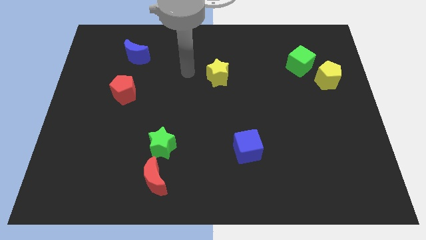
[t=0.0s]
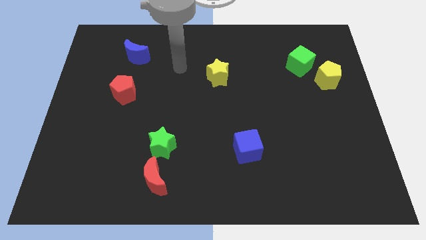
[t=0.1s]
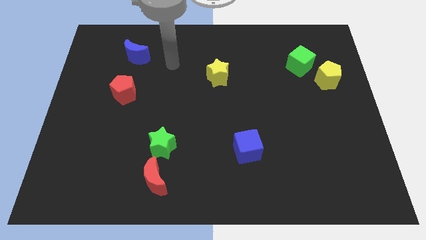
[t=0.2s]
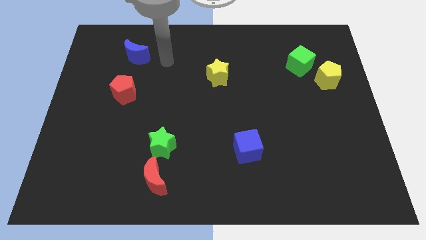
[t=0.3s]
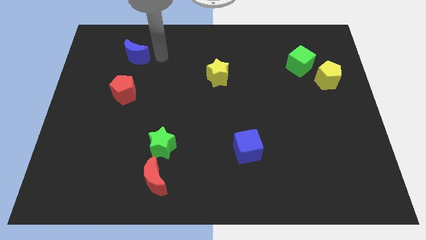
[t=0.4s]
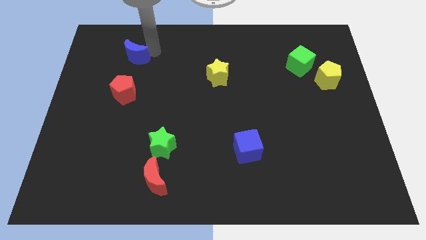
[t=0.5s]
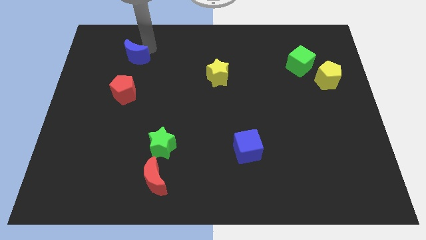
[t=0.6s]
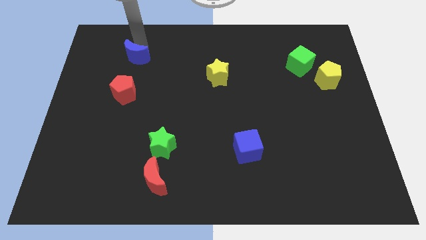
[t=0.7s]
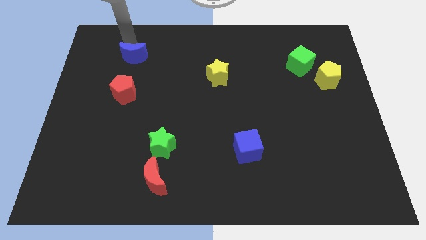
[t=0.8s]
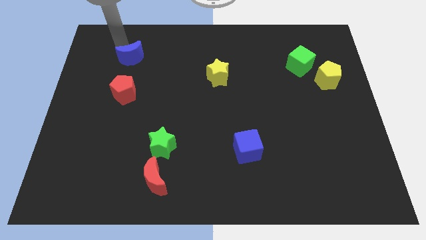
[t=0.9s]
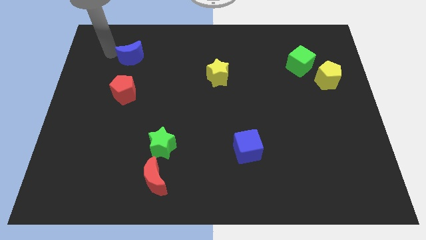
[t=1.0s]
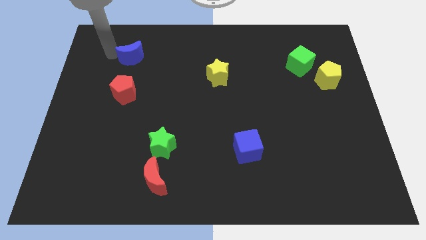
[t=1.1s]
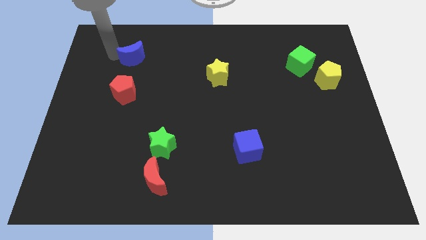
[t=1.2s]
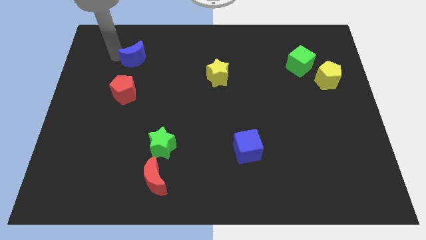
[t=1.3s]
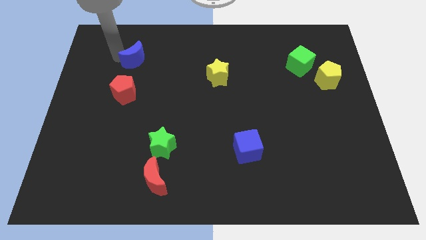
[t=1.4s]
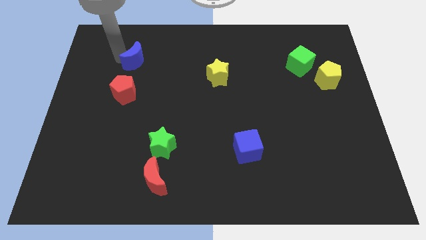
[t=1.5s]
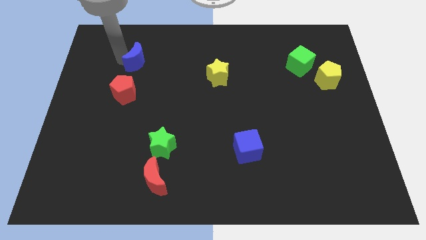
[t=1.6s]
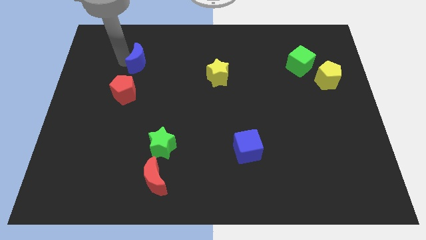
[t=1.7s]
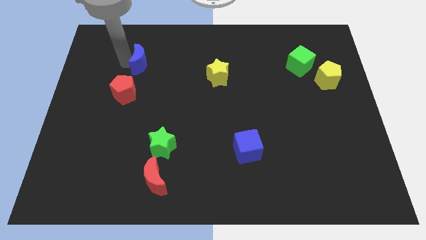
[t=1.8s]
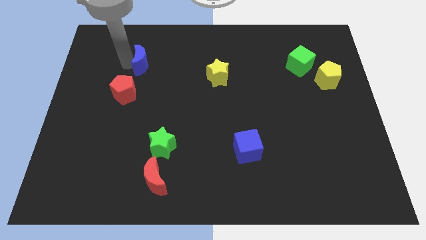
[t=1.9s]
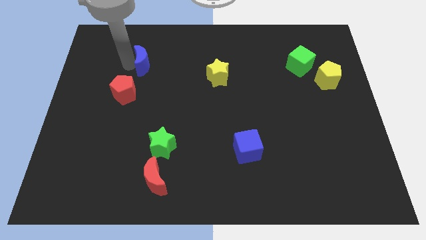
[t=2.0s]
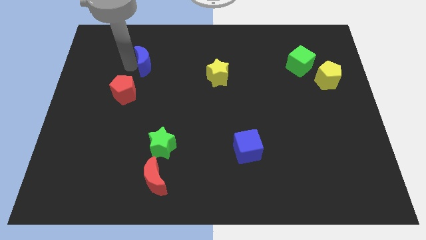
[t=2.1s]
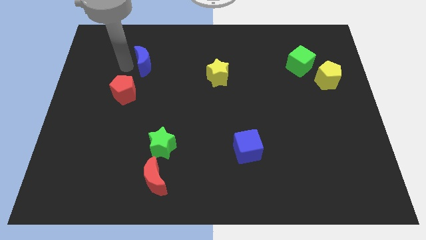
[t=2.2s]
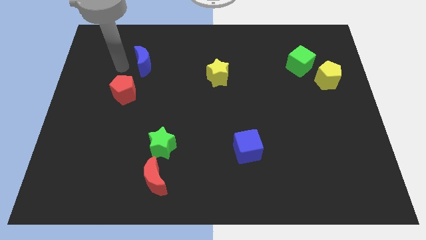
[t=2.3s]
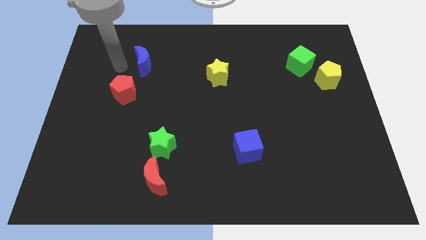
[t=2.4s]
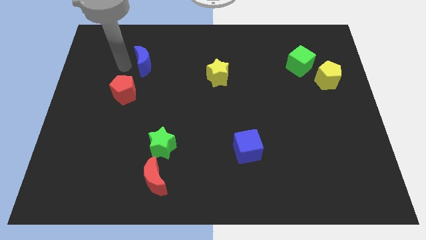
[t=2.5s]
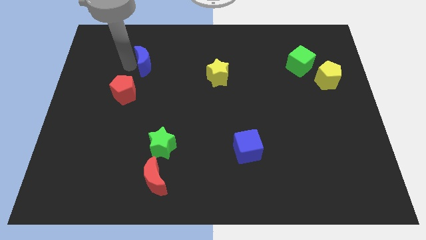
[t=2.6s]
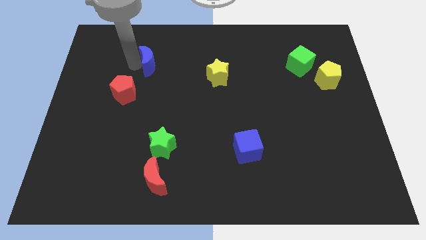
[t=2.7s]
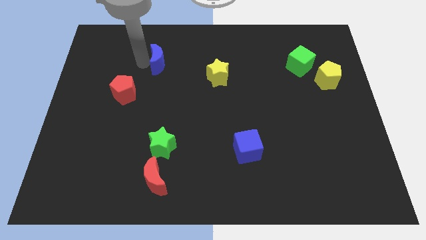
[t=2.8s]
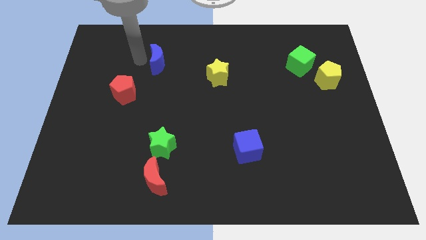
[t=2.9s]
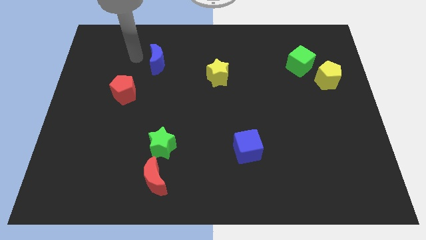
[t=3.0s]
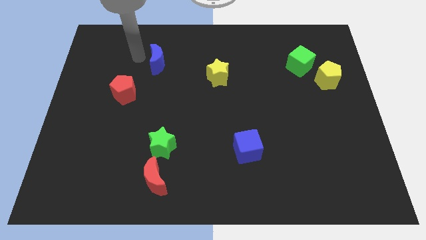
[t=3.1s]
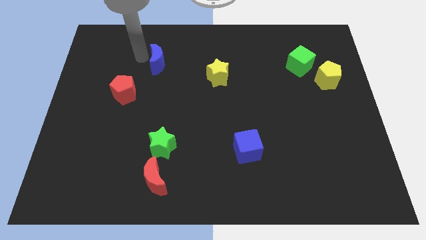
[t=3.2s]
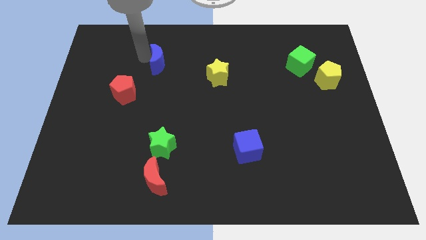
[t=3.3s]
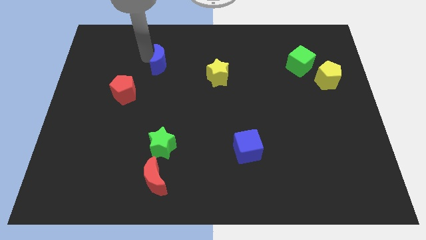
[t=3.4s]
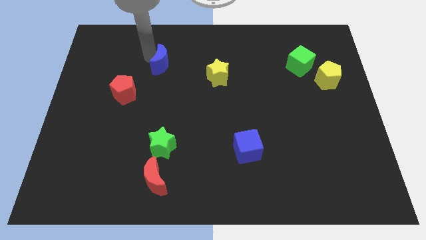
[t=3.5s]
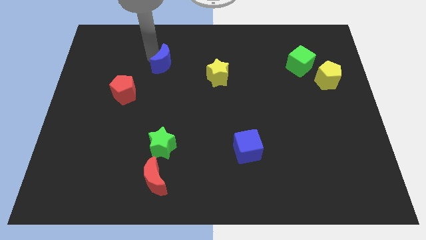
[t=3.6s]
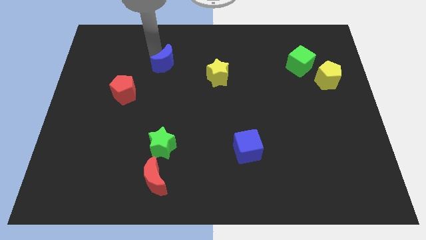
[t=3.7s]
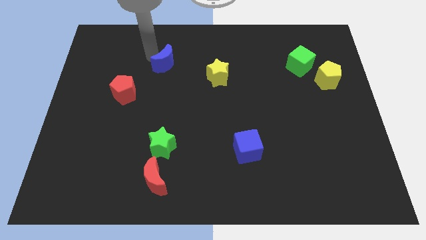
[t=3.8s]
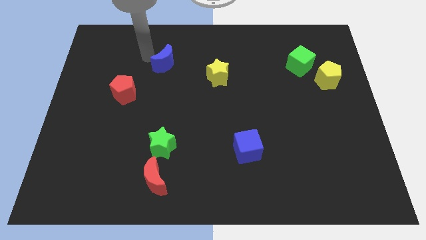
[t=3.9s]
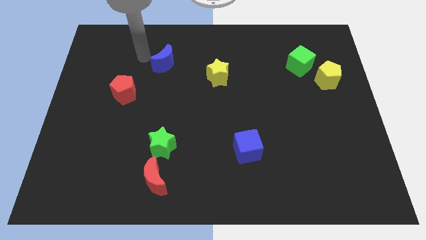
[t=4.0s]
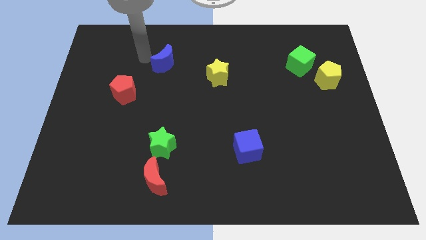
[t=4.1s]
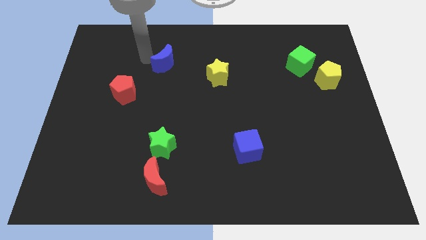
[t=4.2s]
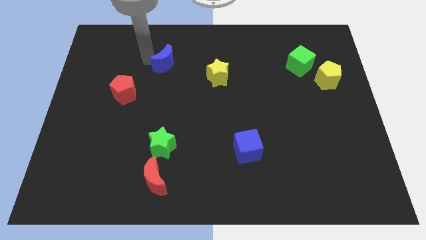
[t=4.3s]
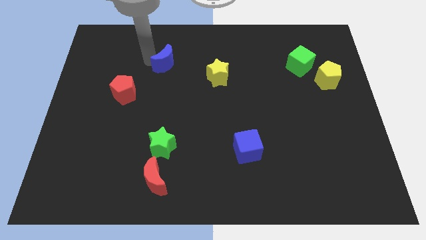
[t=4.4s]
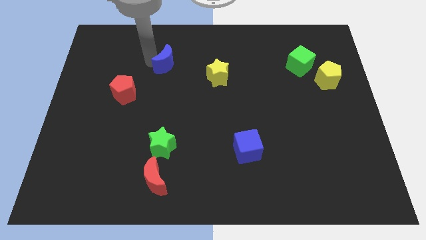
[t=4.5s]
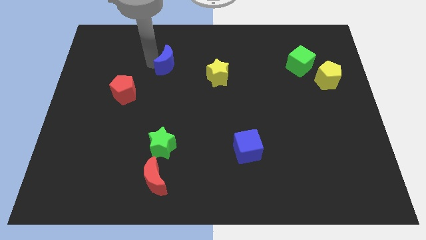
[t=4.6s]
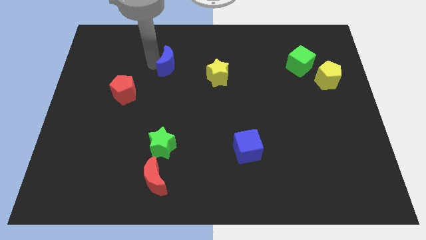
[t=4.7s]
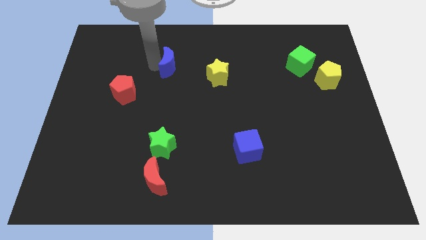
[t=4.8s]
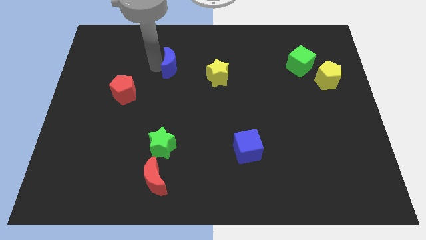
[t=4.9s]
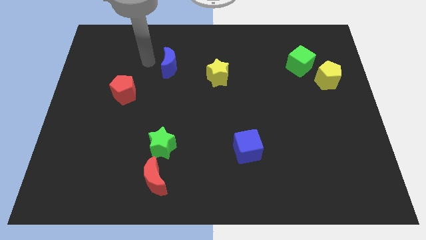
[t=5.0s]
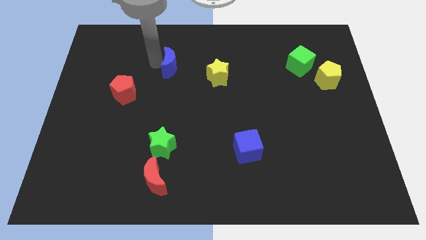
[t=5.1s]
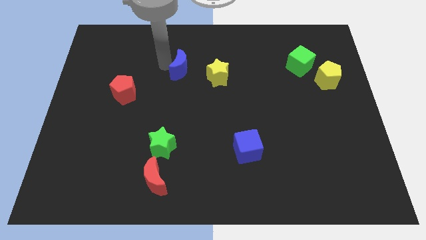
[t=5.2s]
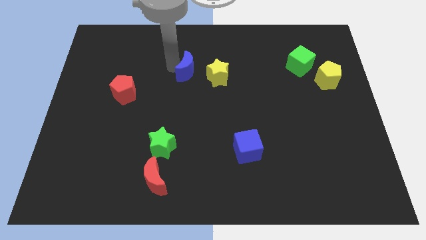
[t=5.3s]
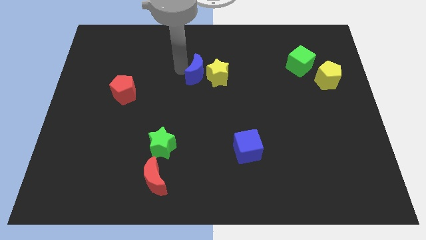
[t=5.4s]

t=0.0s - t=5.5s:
put the blue moon close to the yellow star

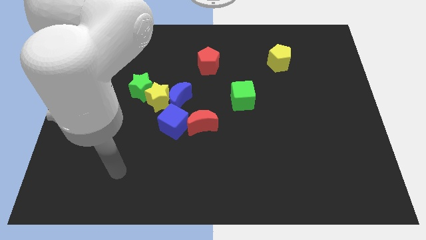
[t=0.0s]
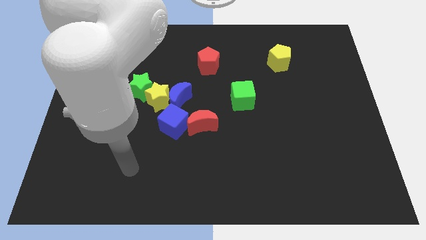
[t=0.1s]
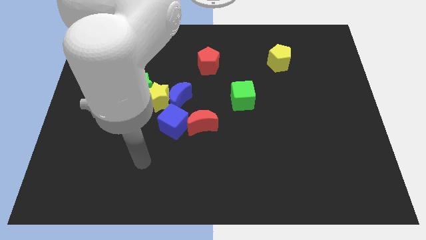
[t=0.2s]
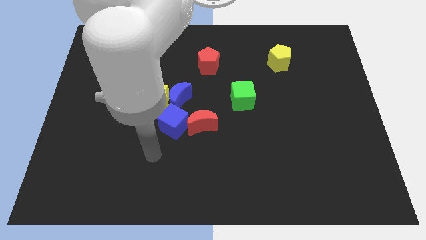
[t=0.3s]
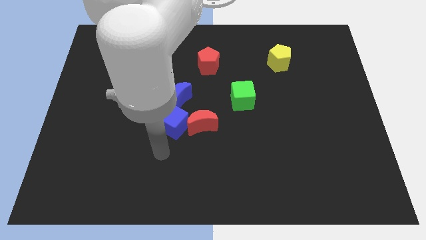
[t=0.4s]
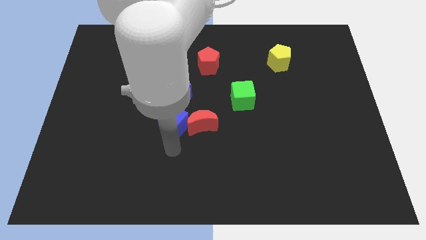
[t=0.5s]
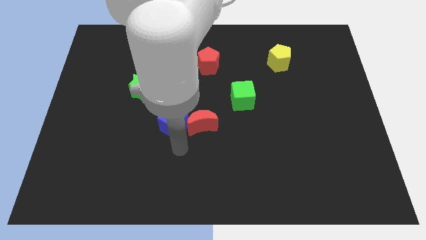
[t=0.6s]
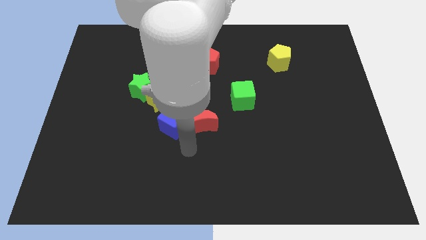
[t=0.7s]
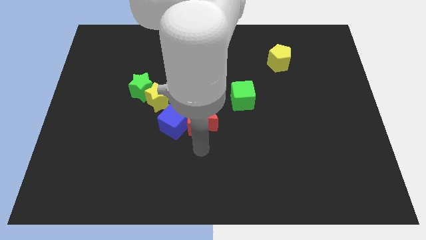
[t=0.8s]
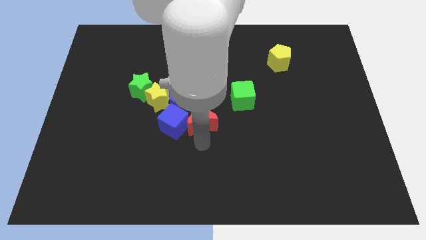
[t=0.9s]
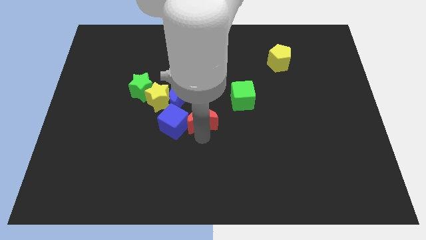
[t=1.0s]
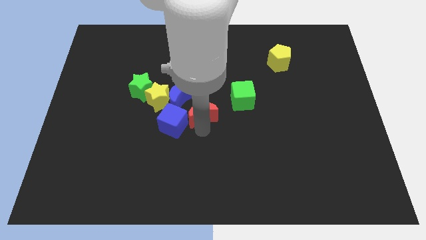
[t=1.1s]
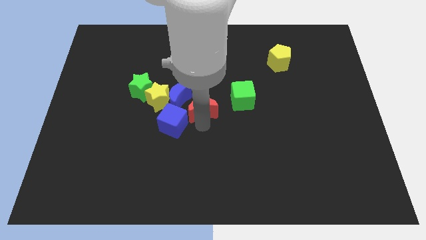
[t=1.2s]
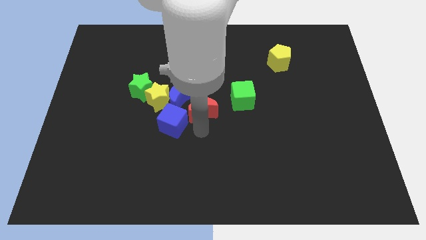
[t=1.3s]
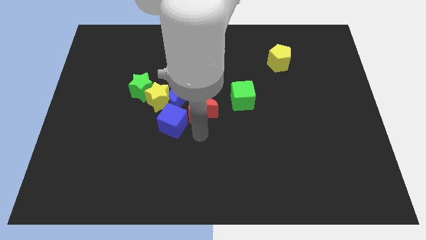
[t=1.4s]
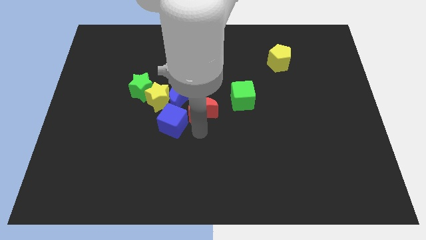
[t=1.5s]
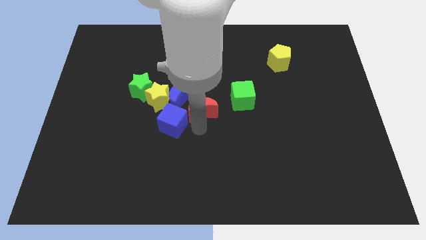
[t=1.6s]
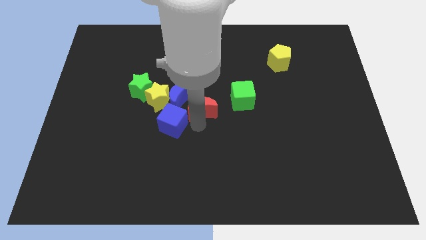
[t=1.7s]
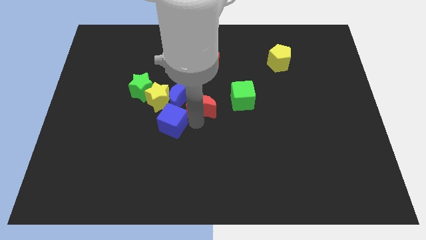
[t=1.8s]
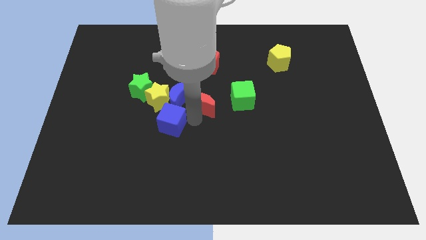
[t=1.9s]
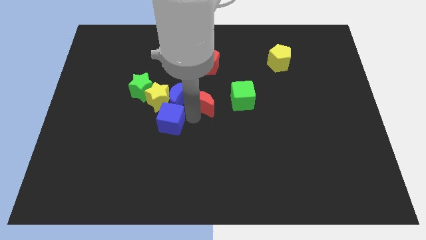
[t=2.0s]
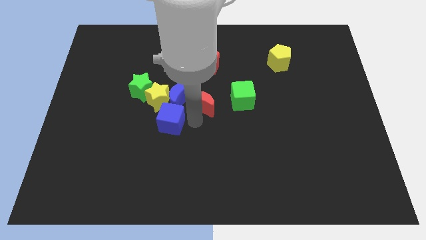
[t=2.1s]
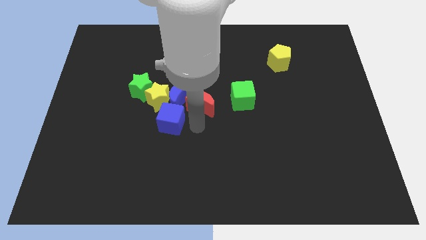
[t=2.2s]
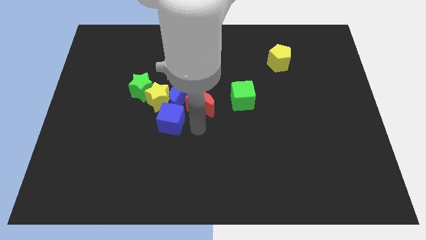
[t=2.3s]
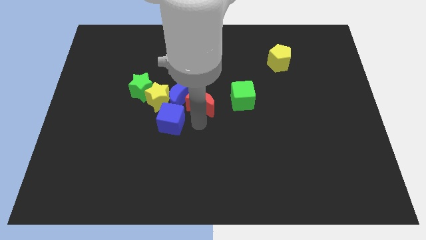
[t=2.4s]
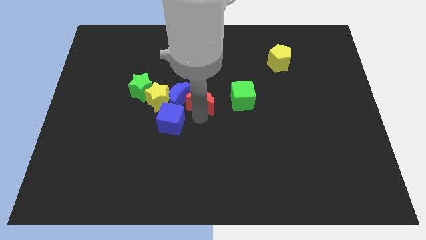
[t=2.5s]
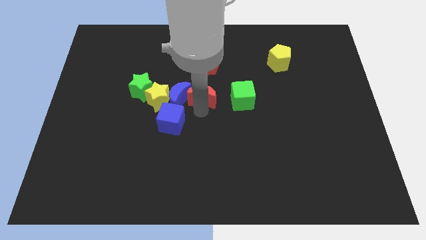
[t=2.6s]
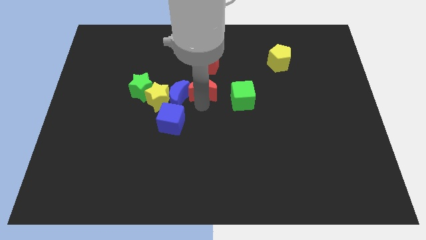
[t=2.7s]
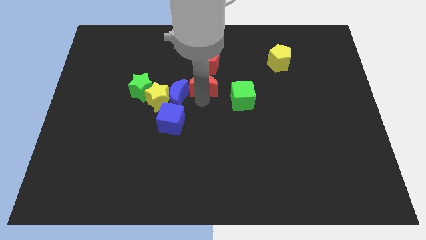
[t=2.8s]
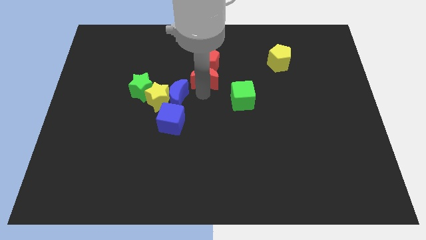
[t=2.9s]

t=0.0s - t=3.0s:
push the red moon to the red pentagon
